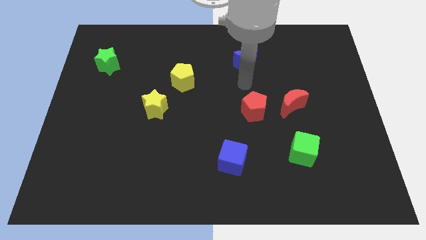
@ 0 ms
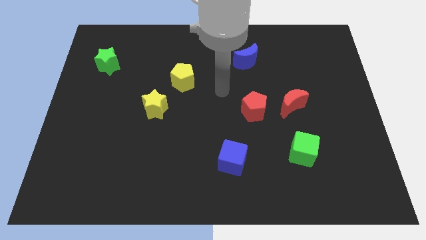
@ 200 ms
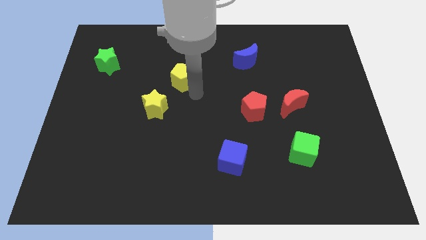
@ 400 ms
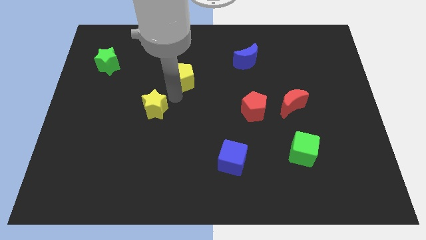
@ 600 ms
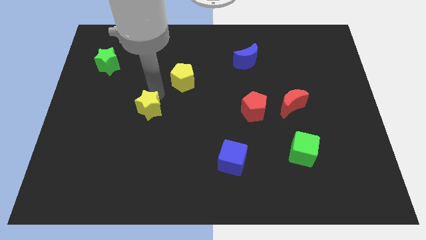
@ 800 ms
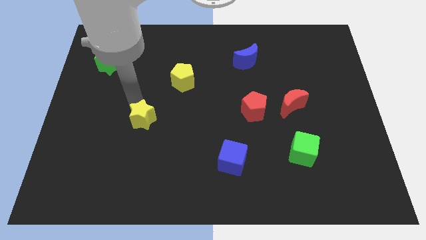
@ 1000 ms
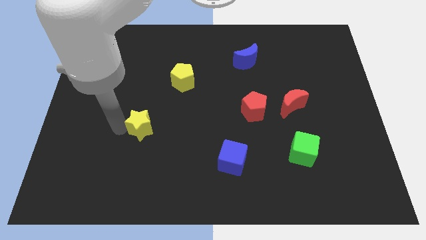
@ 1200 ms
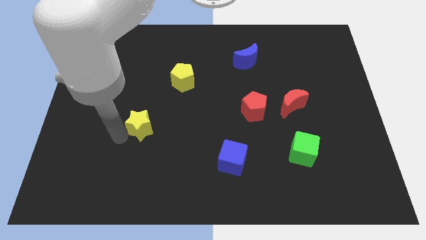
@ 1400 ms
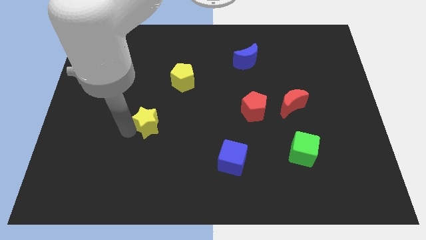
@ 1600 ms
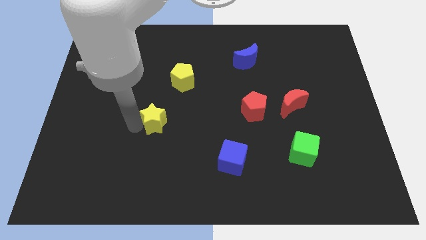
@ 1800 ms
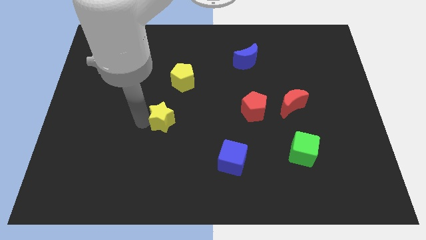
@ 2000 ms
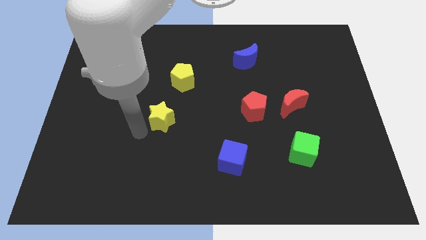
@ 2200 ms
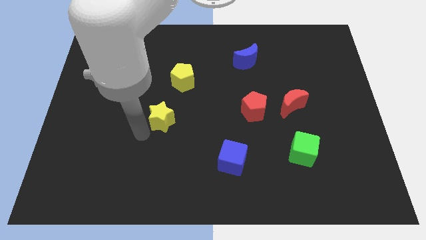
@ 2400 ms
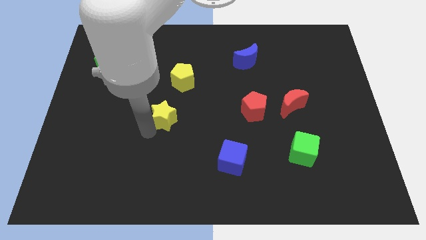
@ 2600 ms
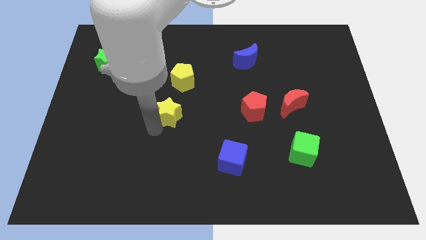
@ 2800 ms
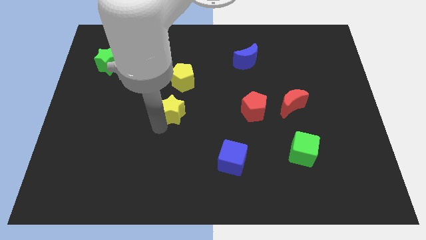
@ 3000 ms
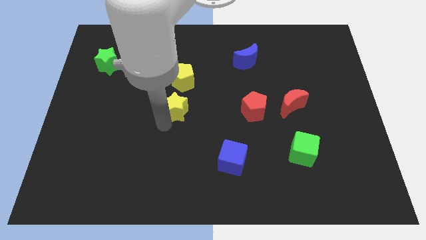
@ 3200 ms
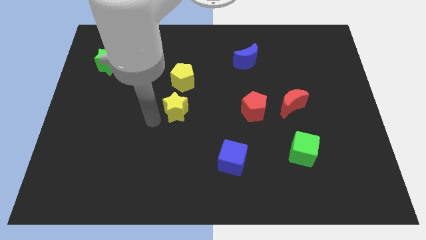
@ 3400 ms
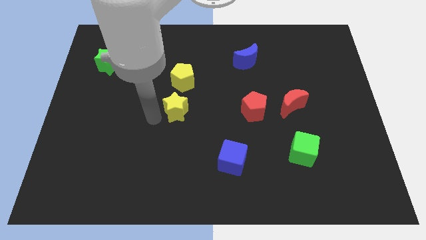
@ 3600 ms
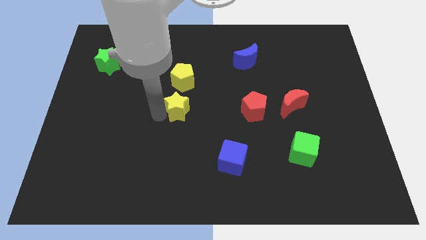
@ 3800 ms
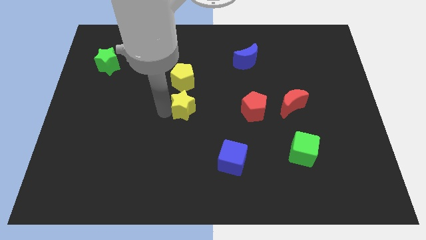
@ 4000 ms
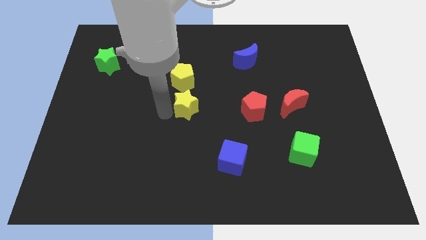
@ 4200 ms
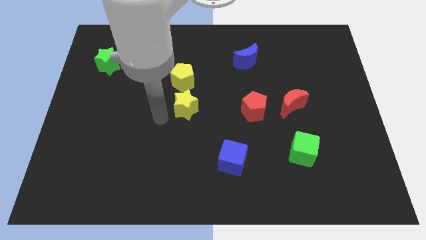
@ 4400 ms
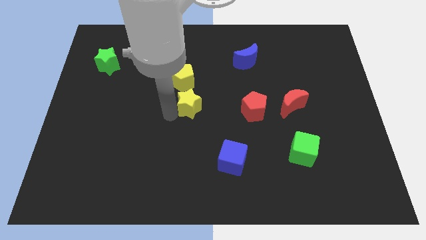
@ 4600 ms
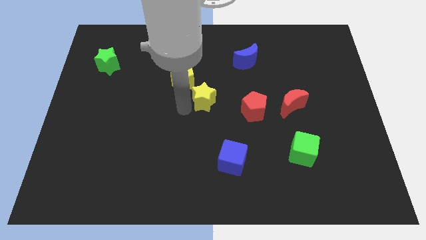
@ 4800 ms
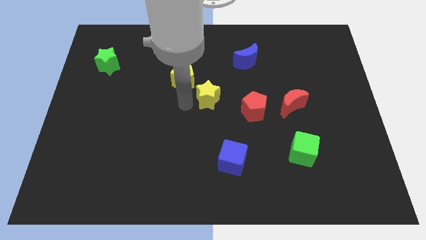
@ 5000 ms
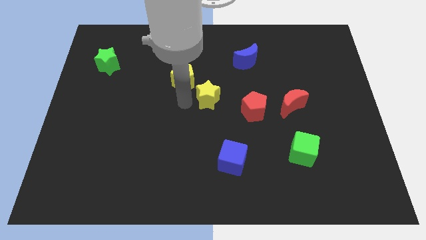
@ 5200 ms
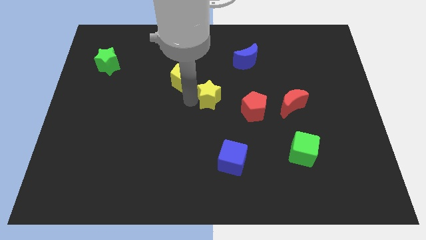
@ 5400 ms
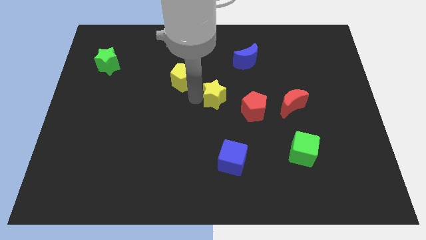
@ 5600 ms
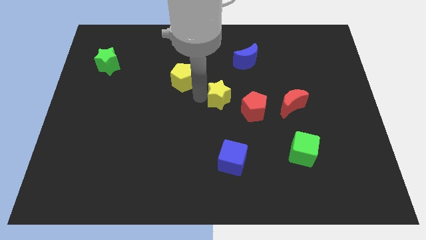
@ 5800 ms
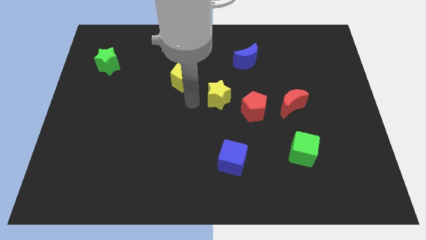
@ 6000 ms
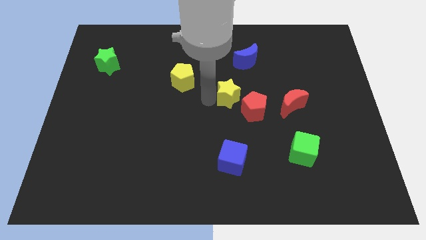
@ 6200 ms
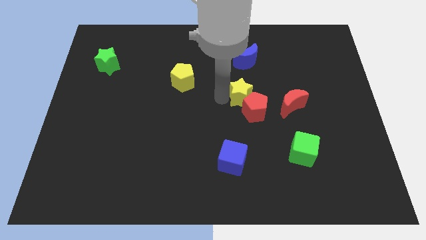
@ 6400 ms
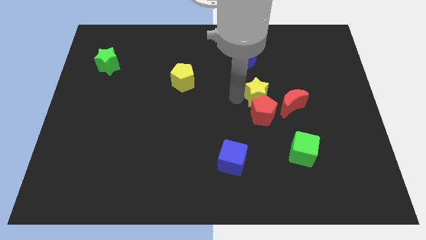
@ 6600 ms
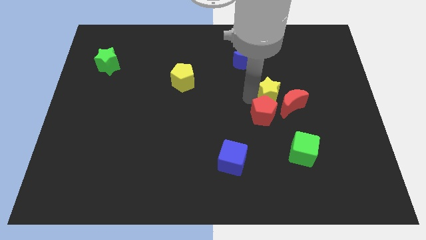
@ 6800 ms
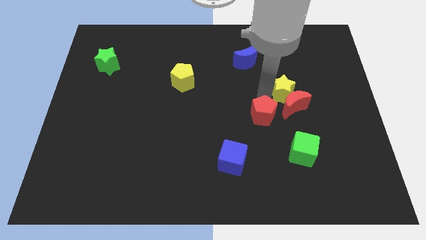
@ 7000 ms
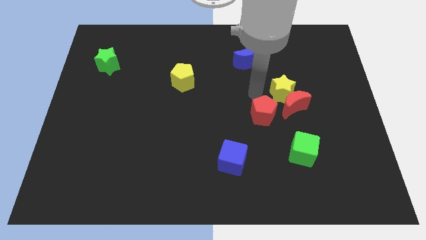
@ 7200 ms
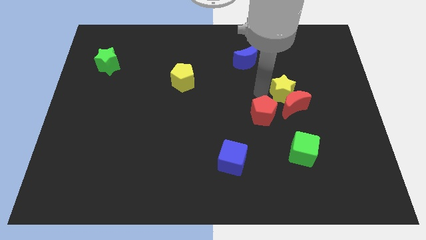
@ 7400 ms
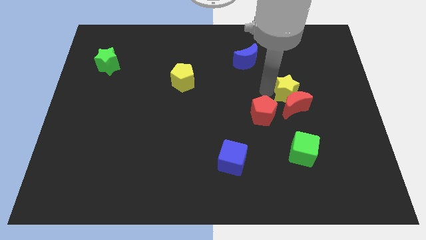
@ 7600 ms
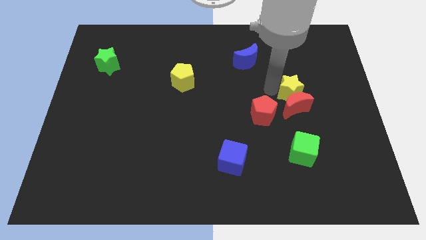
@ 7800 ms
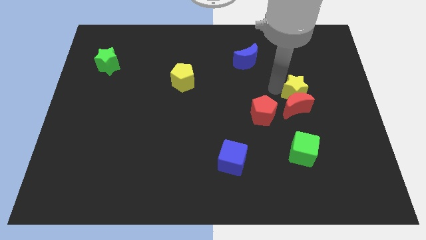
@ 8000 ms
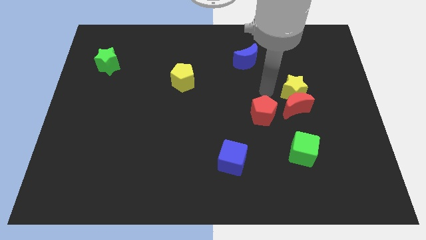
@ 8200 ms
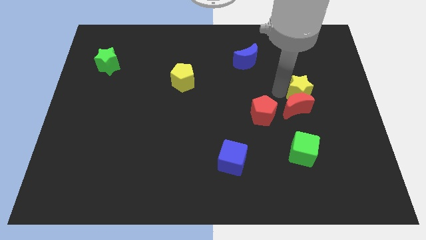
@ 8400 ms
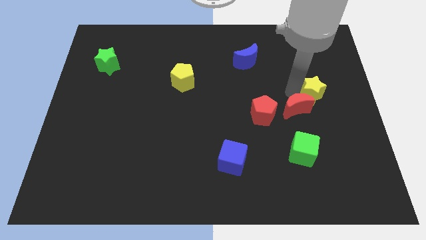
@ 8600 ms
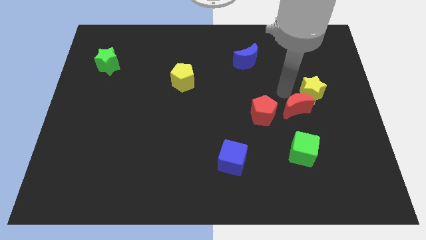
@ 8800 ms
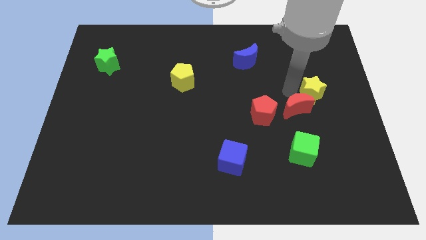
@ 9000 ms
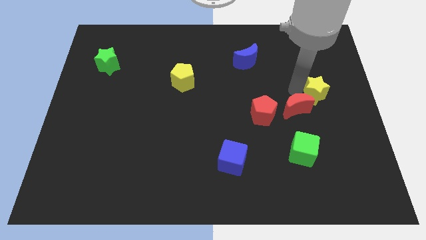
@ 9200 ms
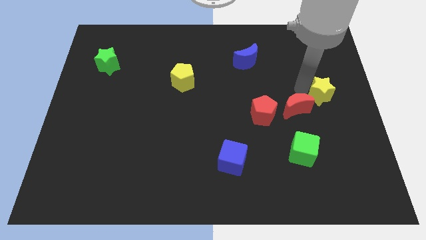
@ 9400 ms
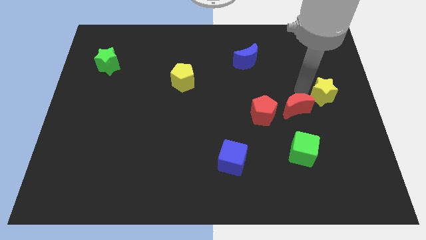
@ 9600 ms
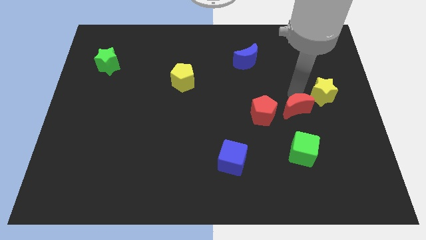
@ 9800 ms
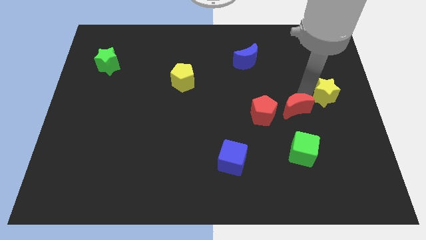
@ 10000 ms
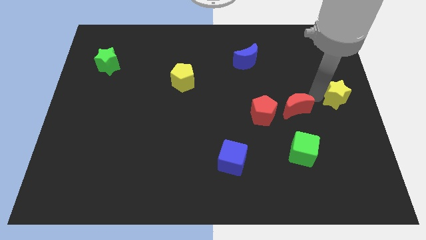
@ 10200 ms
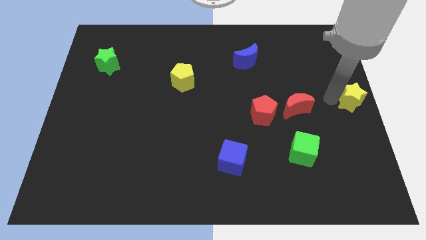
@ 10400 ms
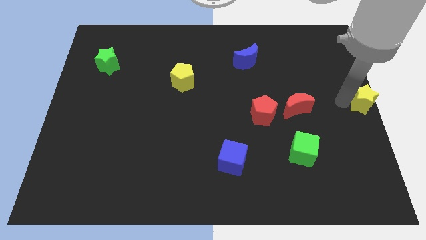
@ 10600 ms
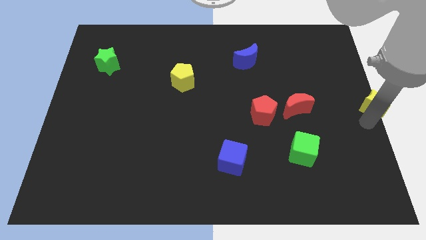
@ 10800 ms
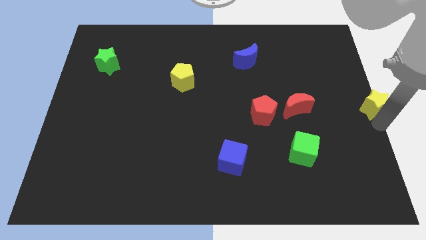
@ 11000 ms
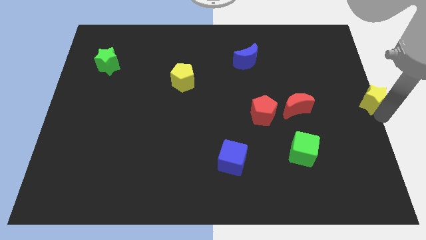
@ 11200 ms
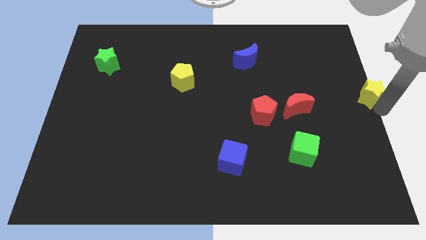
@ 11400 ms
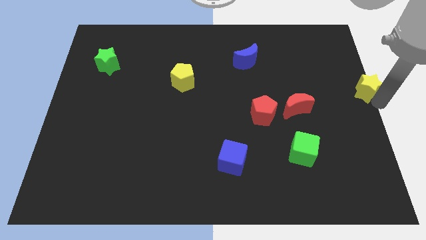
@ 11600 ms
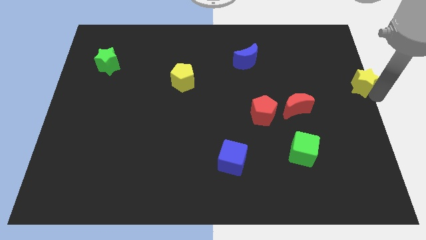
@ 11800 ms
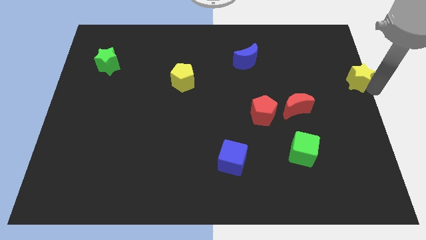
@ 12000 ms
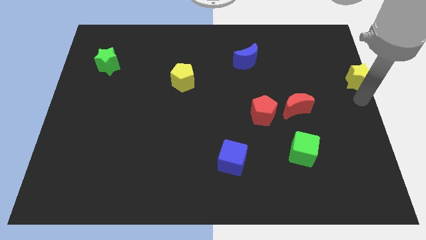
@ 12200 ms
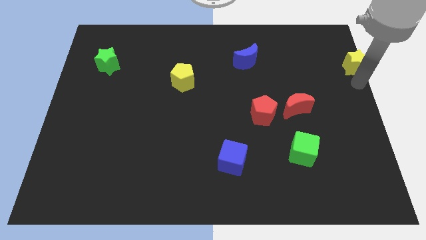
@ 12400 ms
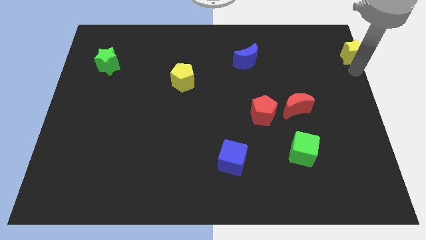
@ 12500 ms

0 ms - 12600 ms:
push the yellow star to the upper right corner
